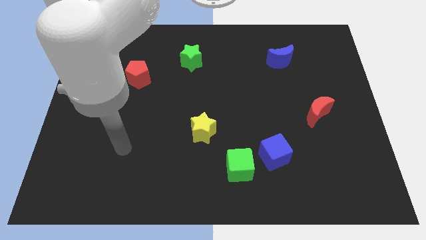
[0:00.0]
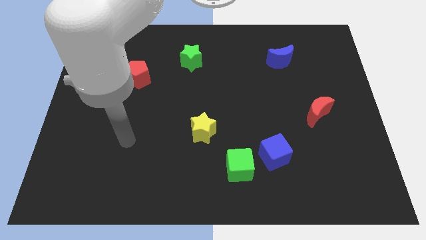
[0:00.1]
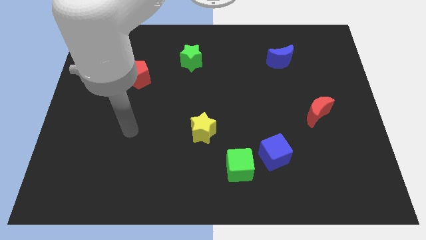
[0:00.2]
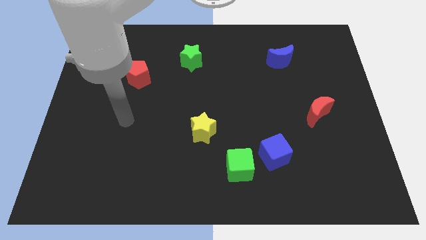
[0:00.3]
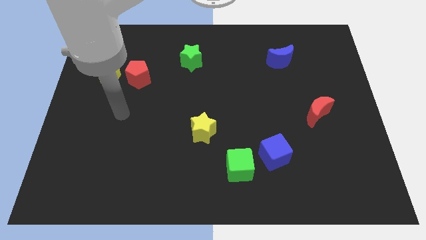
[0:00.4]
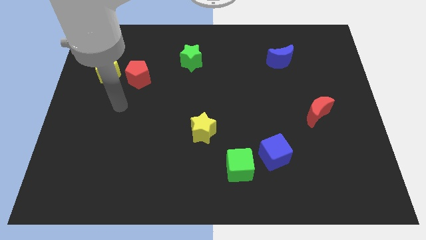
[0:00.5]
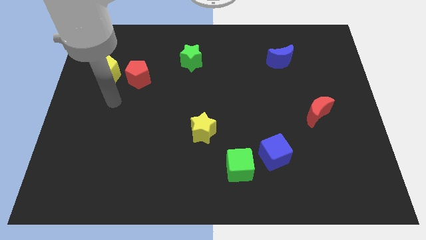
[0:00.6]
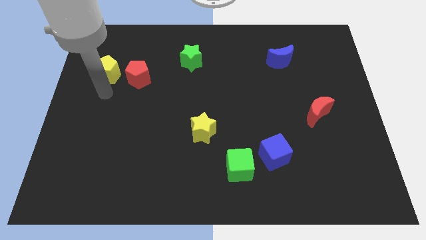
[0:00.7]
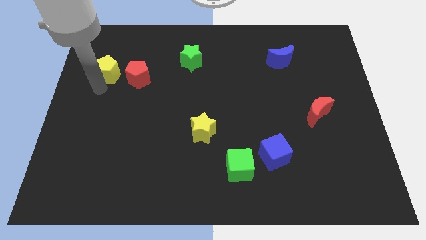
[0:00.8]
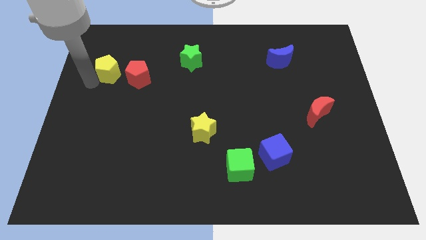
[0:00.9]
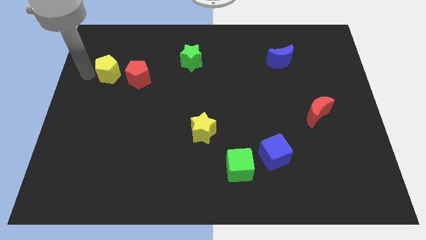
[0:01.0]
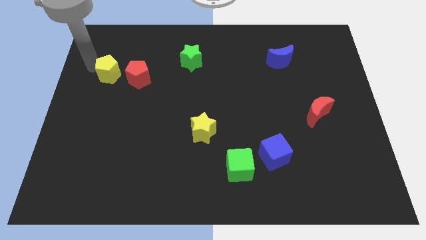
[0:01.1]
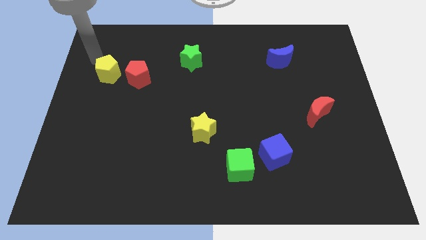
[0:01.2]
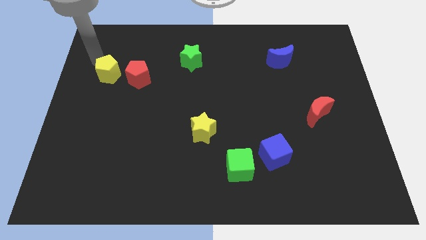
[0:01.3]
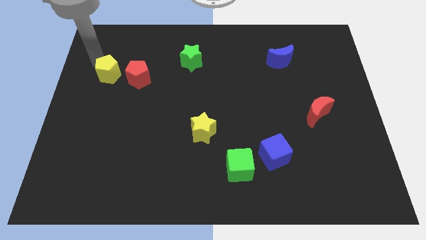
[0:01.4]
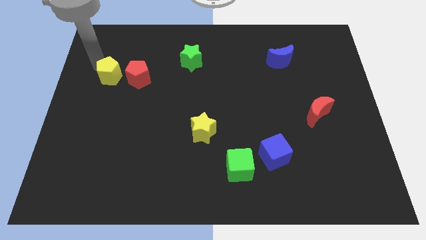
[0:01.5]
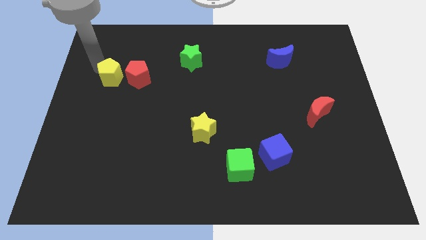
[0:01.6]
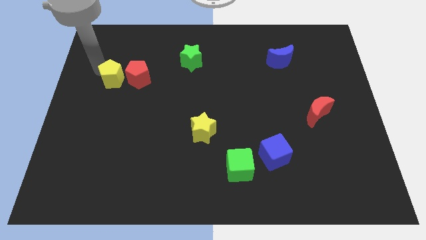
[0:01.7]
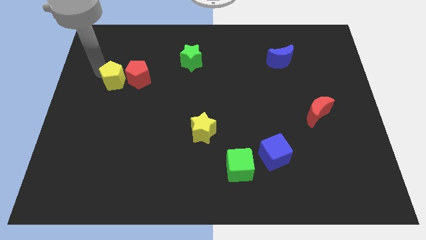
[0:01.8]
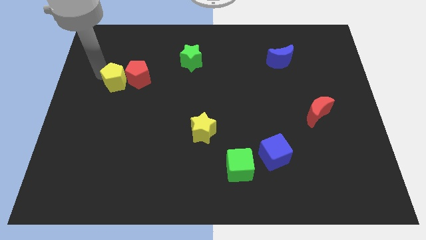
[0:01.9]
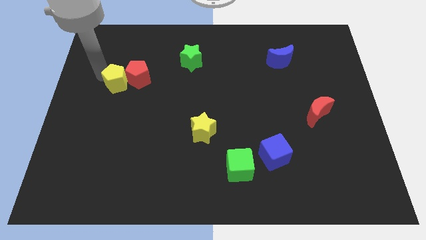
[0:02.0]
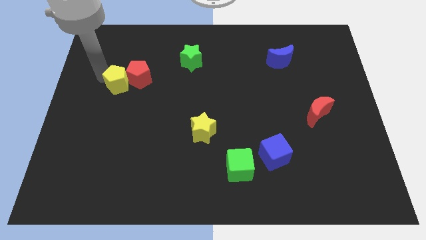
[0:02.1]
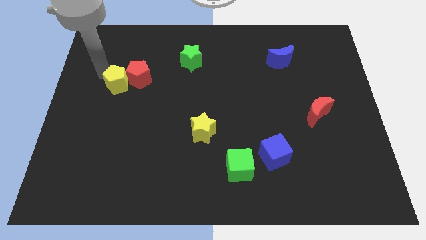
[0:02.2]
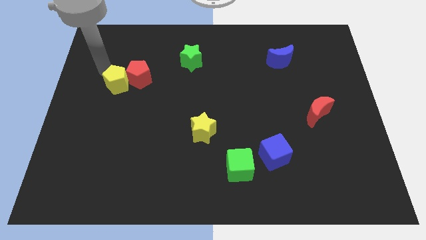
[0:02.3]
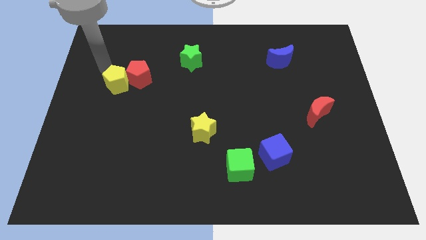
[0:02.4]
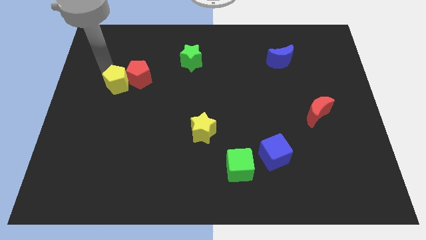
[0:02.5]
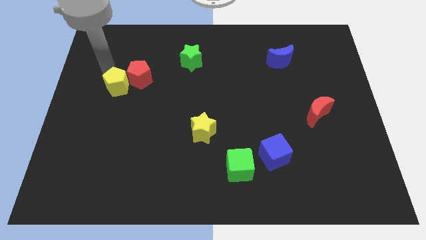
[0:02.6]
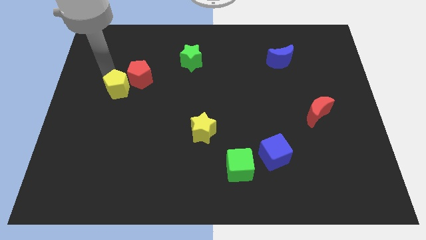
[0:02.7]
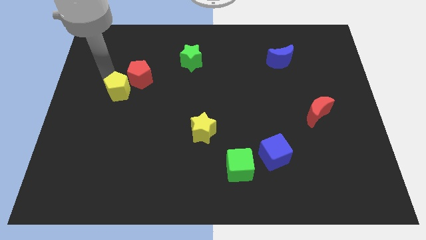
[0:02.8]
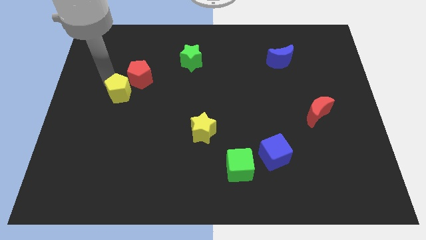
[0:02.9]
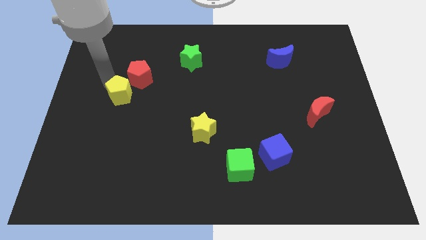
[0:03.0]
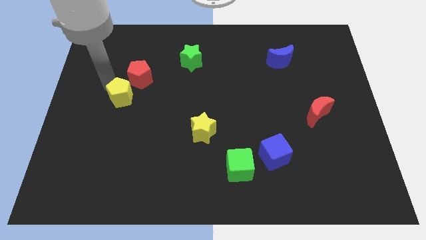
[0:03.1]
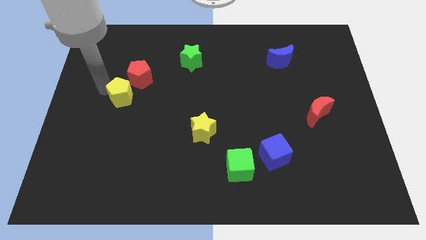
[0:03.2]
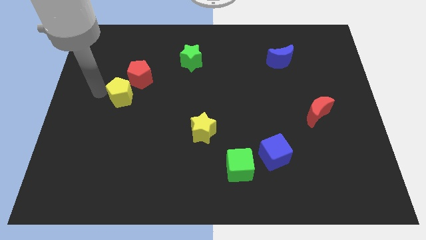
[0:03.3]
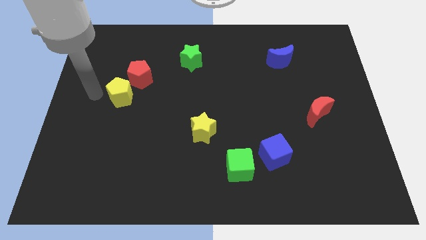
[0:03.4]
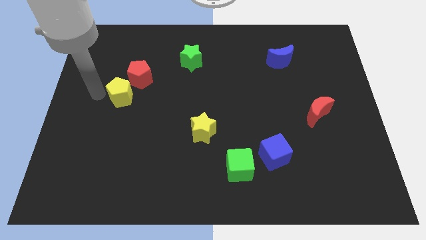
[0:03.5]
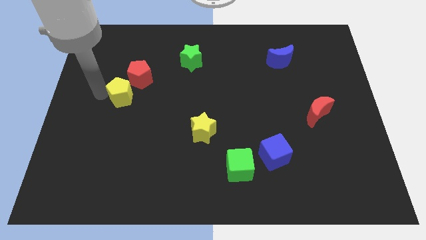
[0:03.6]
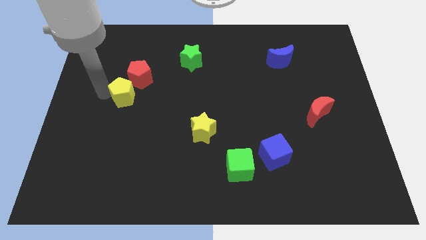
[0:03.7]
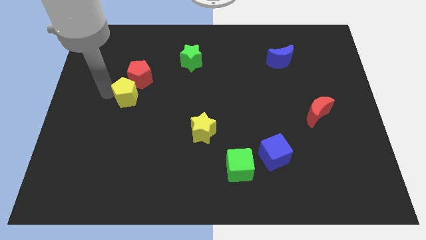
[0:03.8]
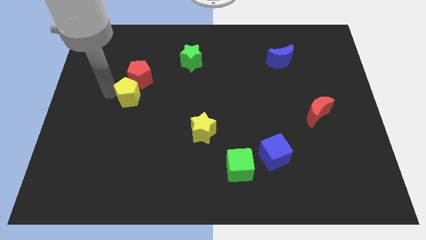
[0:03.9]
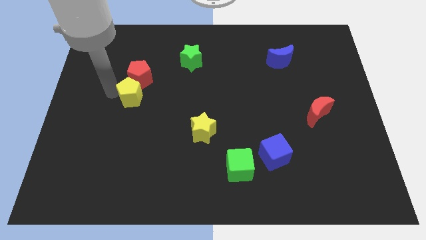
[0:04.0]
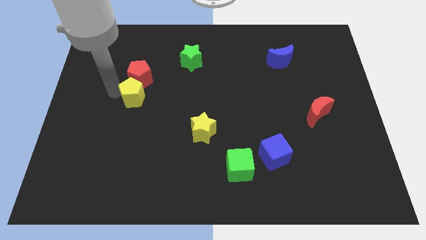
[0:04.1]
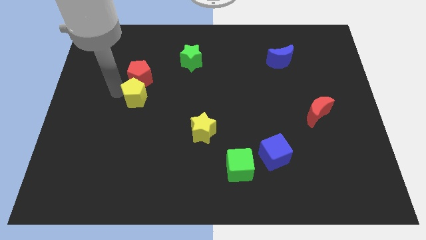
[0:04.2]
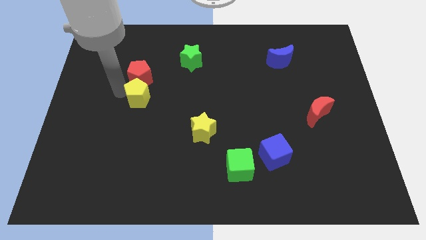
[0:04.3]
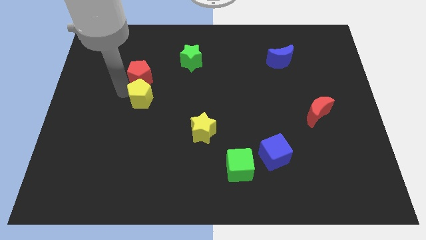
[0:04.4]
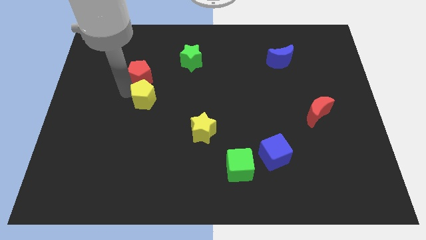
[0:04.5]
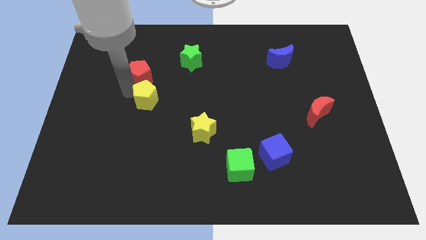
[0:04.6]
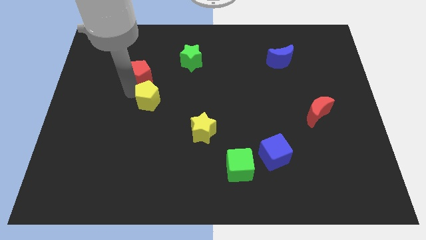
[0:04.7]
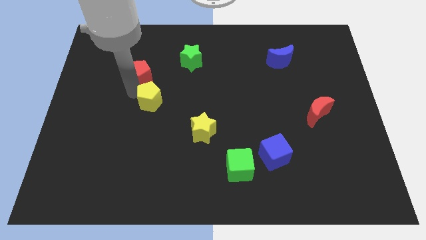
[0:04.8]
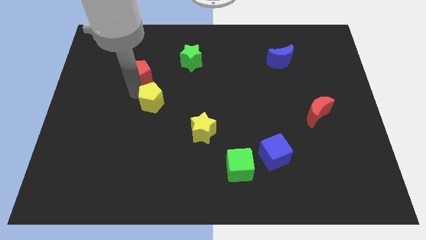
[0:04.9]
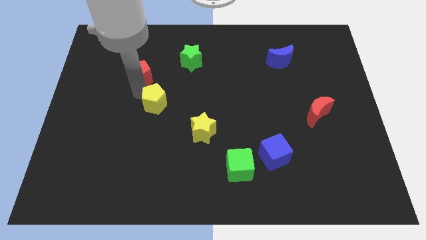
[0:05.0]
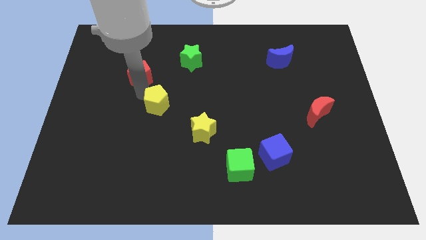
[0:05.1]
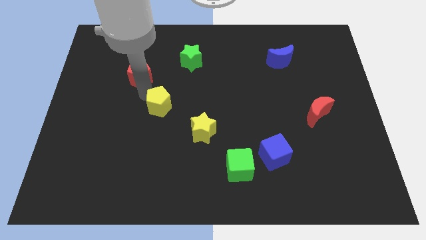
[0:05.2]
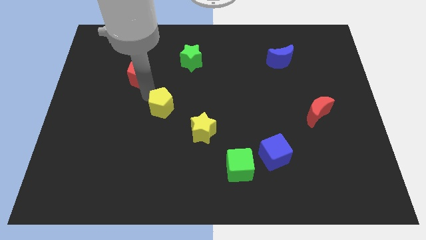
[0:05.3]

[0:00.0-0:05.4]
put the yellow pentagon to the top left of the yellow star

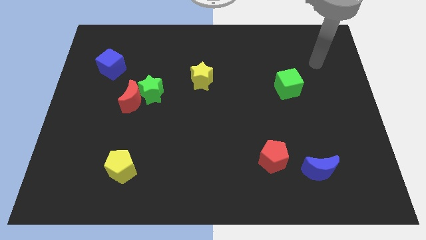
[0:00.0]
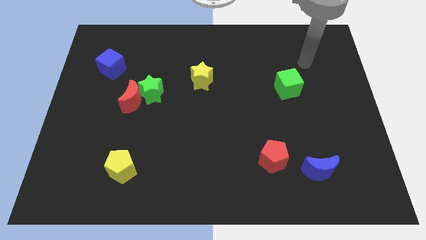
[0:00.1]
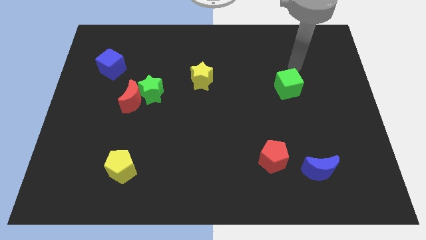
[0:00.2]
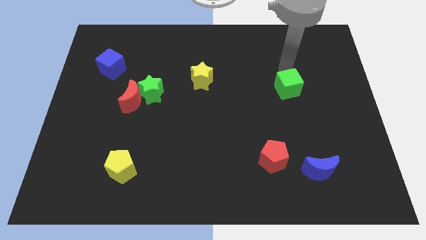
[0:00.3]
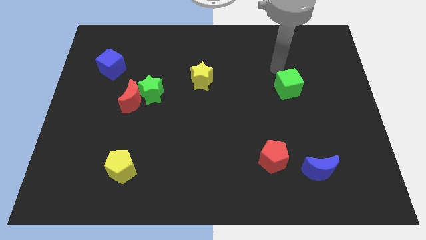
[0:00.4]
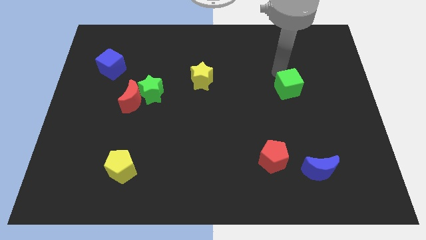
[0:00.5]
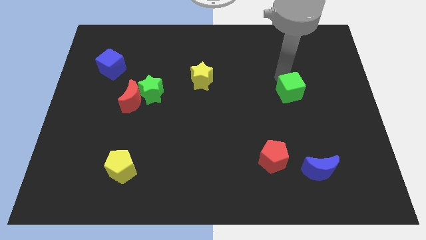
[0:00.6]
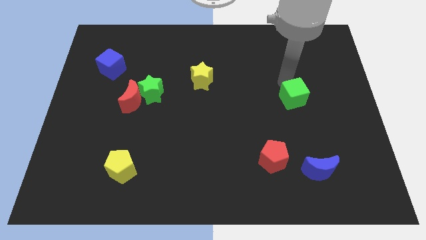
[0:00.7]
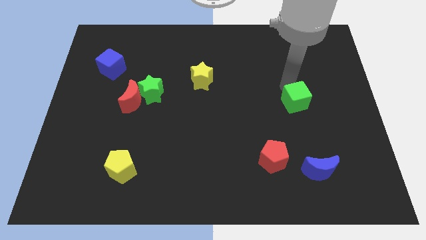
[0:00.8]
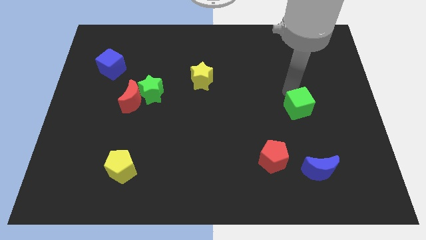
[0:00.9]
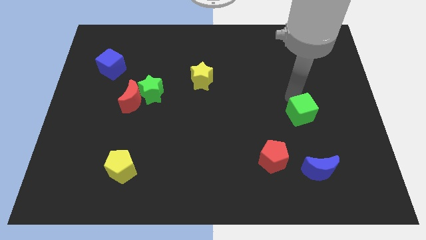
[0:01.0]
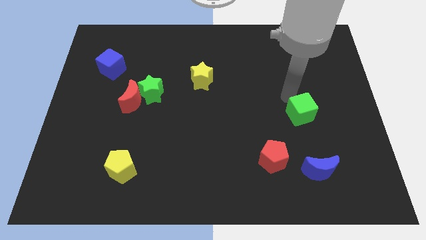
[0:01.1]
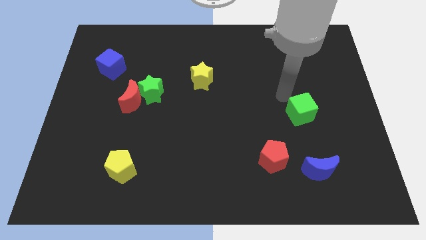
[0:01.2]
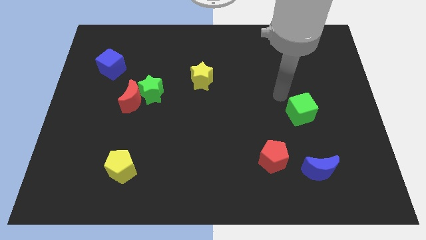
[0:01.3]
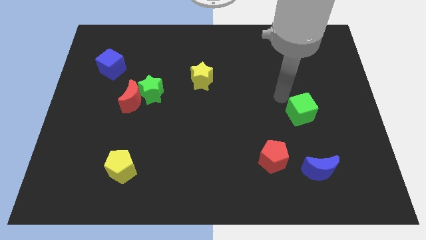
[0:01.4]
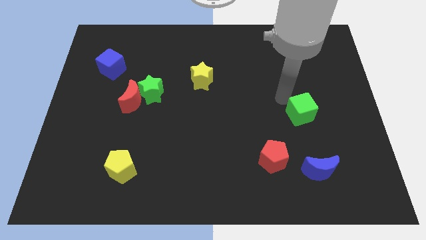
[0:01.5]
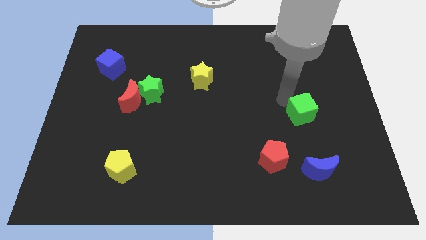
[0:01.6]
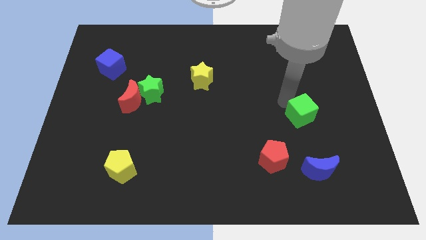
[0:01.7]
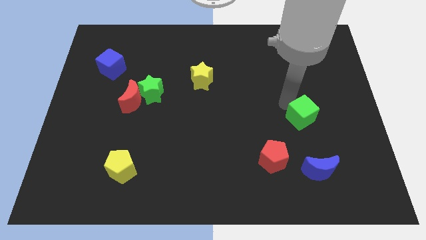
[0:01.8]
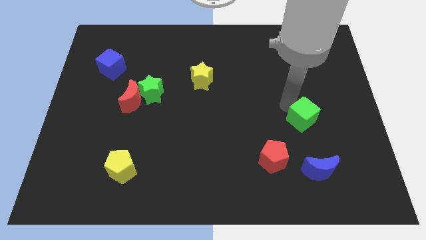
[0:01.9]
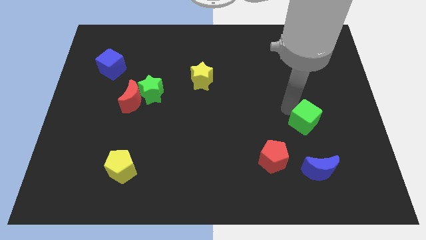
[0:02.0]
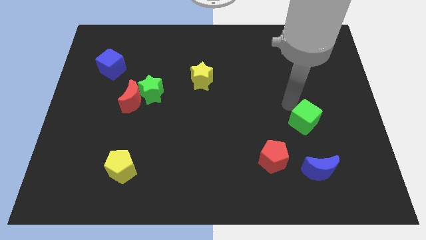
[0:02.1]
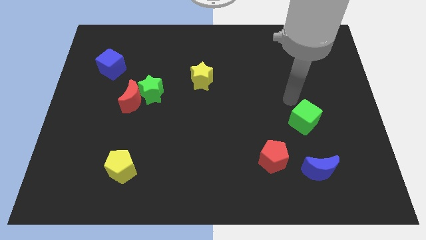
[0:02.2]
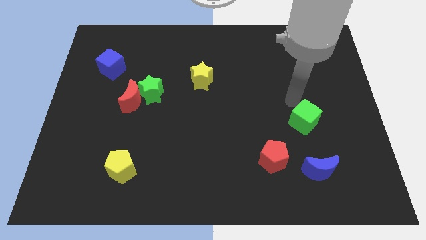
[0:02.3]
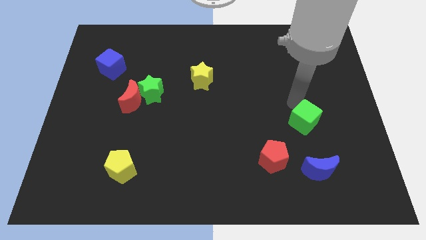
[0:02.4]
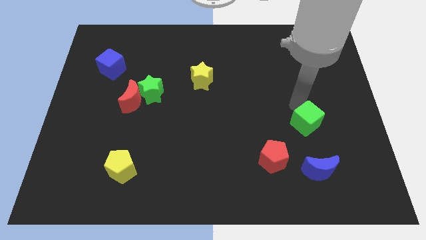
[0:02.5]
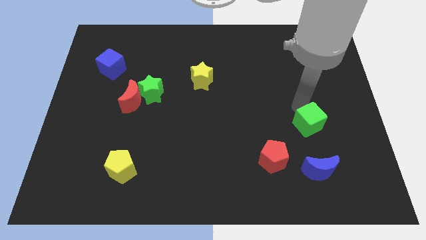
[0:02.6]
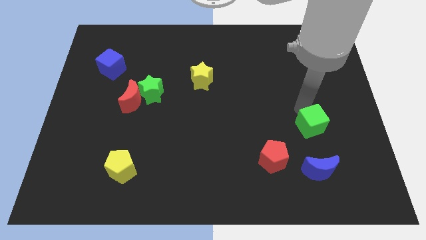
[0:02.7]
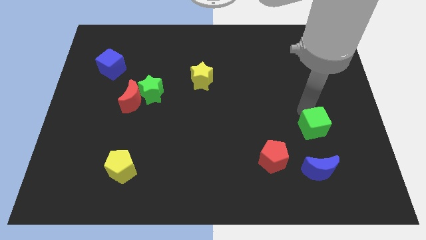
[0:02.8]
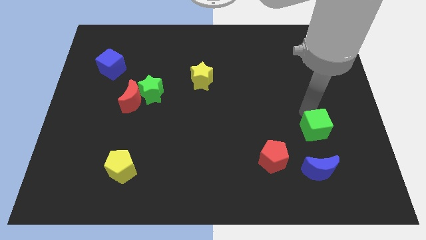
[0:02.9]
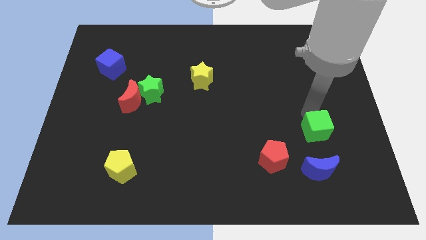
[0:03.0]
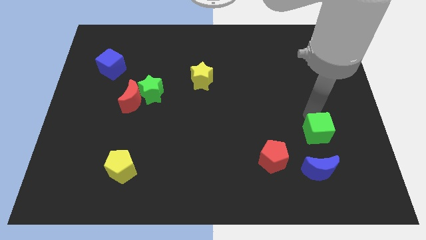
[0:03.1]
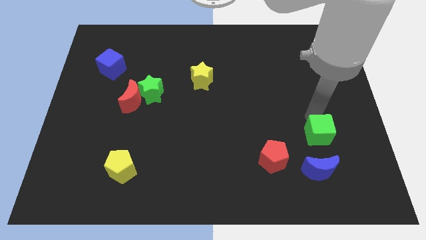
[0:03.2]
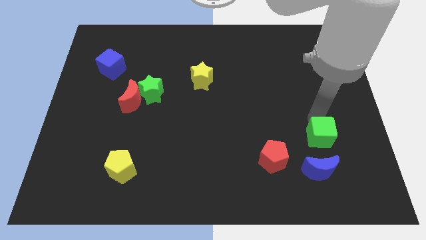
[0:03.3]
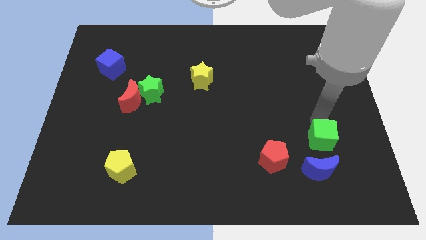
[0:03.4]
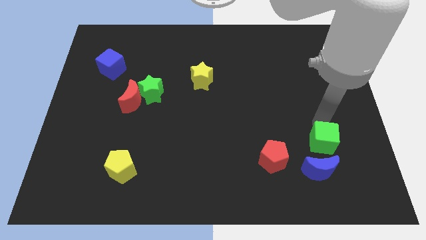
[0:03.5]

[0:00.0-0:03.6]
slide the green cube just right of the red pentagon
